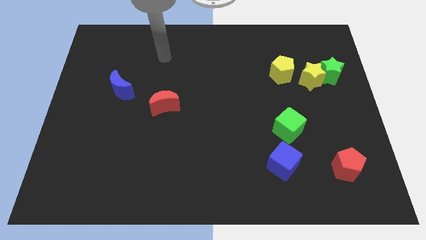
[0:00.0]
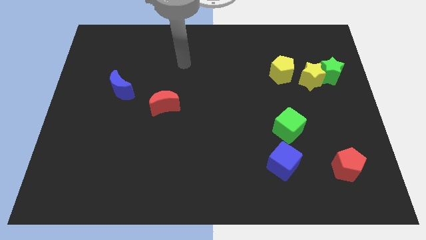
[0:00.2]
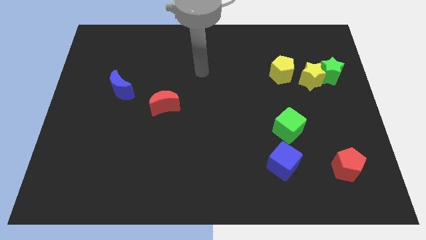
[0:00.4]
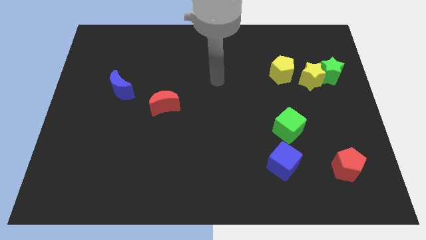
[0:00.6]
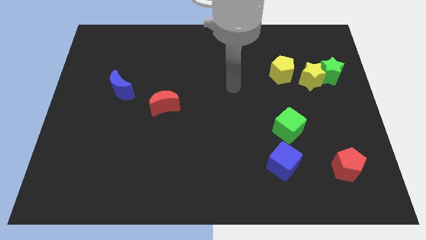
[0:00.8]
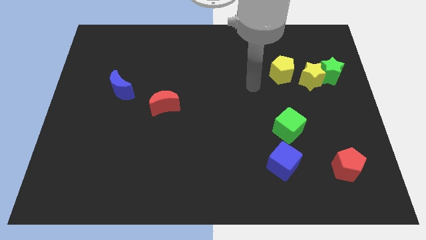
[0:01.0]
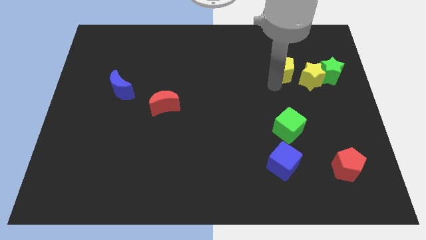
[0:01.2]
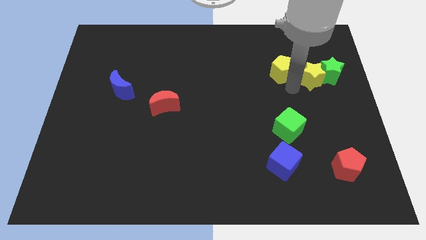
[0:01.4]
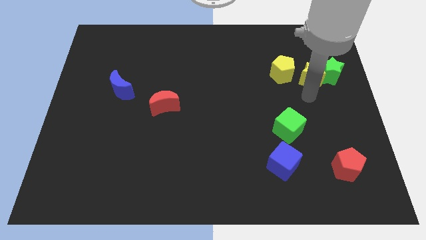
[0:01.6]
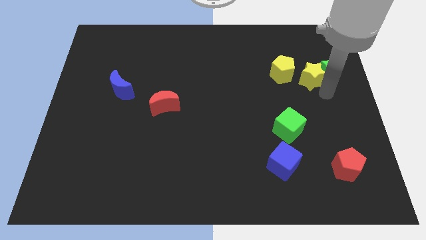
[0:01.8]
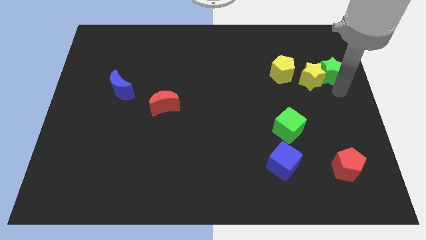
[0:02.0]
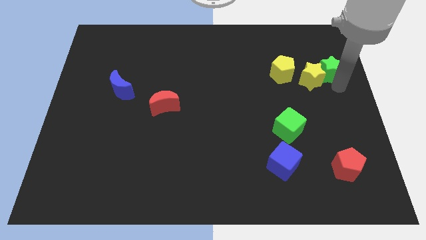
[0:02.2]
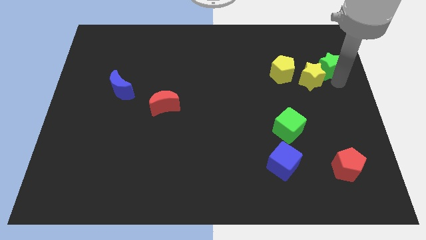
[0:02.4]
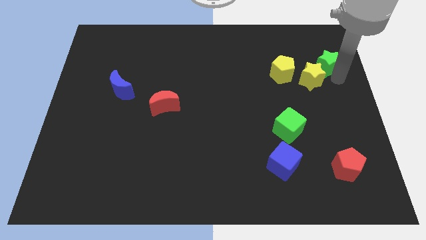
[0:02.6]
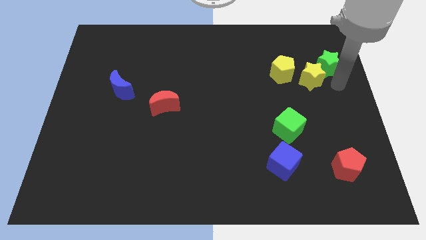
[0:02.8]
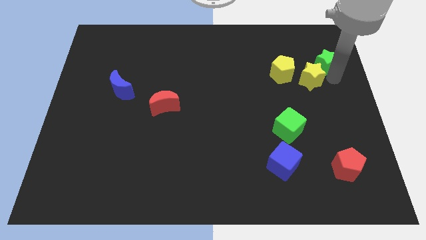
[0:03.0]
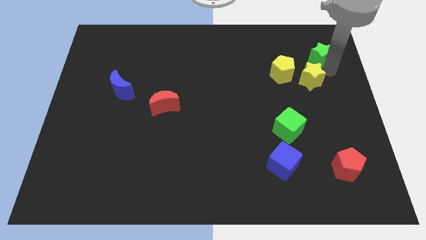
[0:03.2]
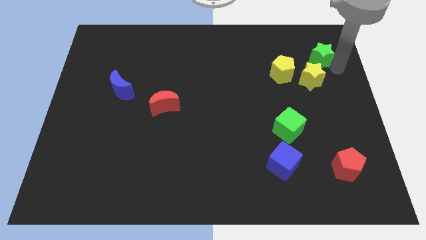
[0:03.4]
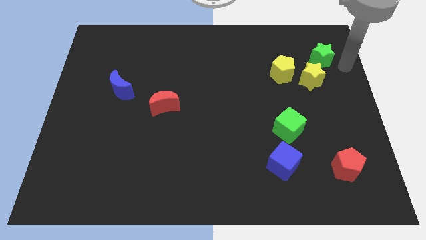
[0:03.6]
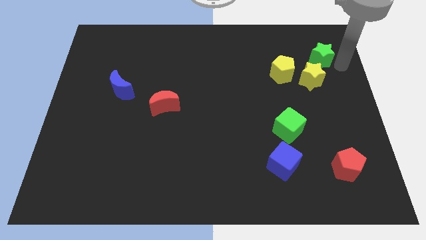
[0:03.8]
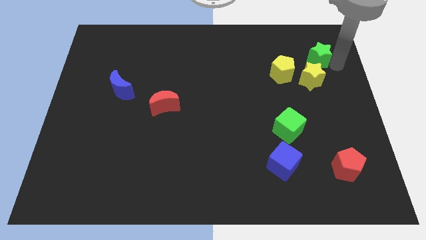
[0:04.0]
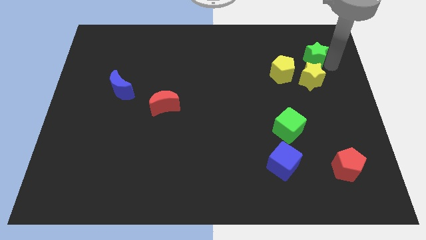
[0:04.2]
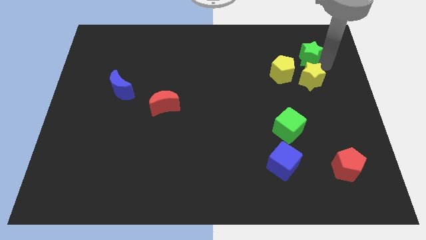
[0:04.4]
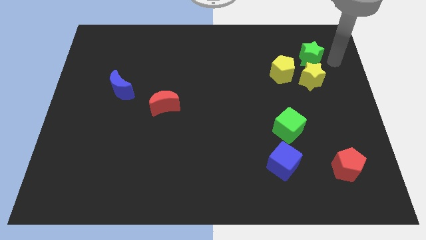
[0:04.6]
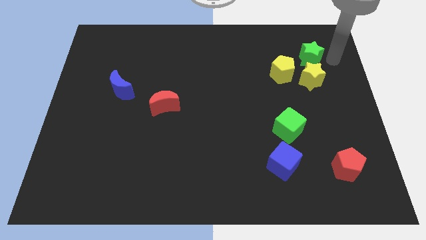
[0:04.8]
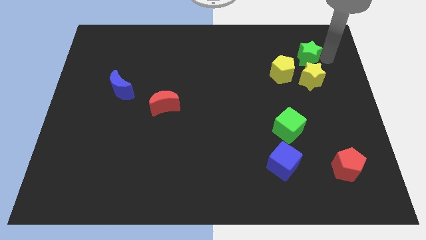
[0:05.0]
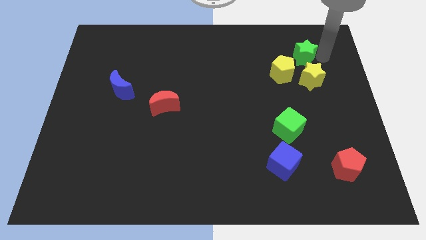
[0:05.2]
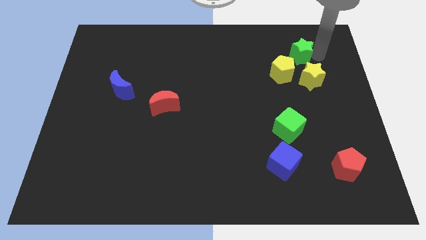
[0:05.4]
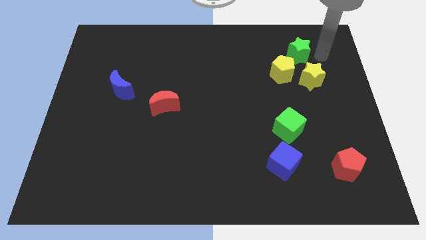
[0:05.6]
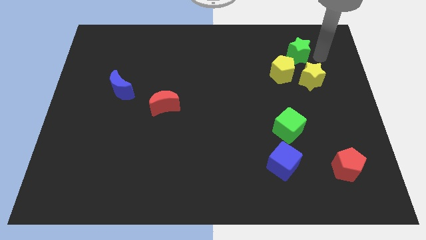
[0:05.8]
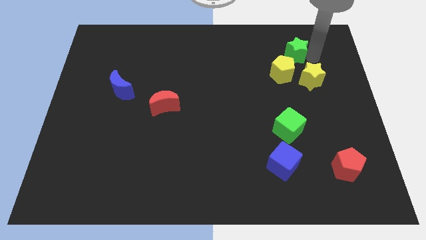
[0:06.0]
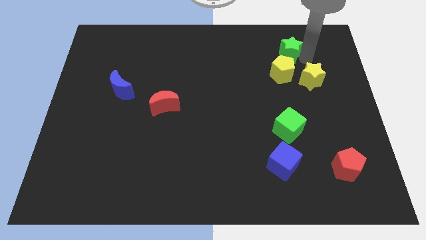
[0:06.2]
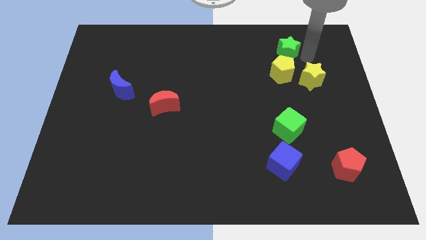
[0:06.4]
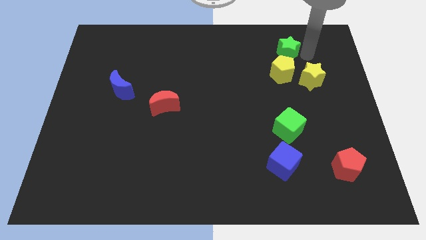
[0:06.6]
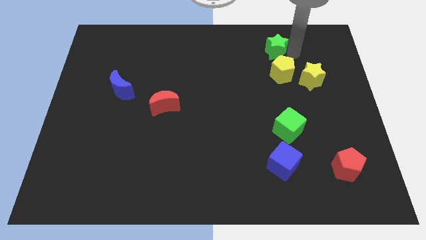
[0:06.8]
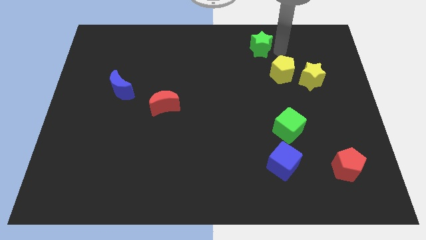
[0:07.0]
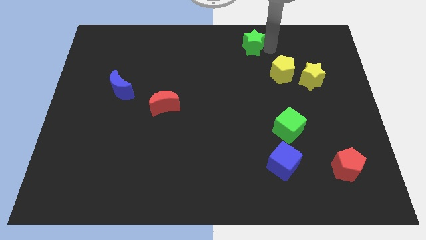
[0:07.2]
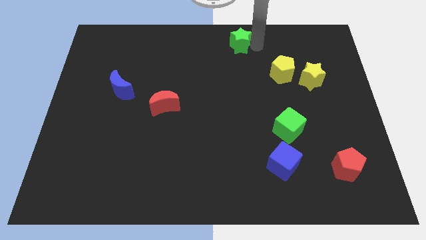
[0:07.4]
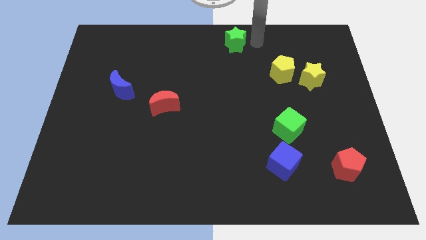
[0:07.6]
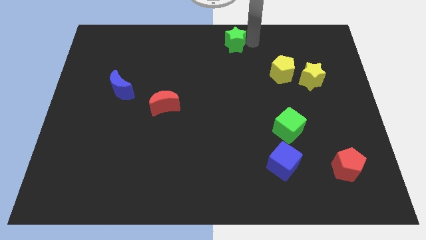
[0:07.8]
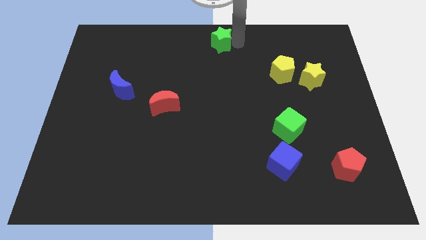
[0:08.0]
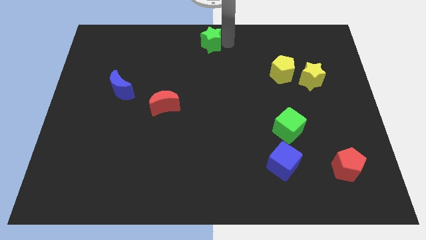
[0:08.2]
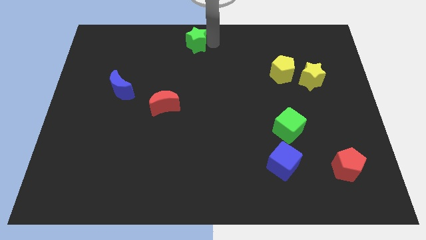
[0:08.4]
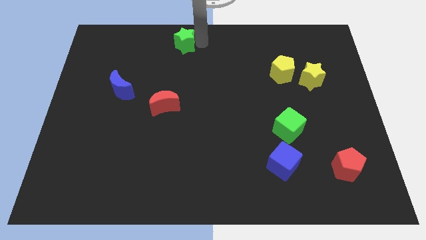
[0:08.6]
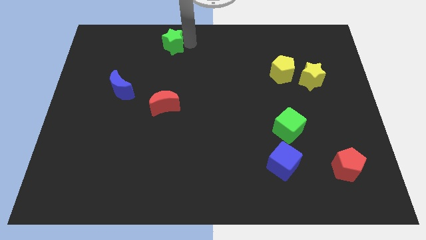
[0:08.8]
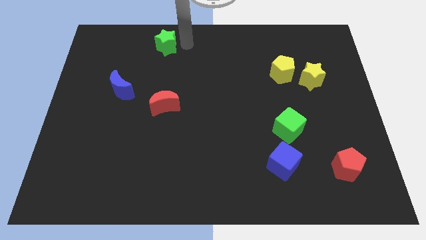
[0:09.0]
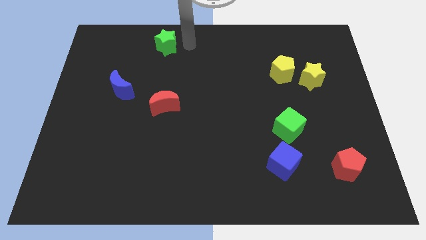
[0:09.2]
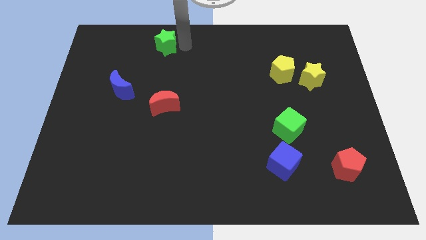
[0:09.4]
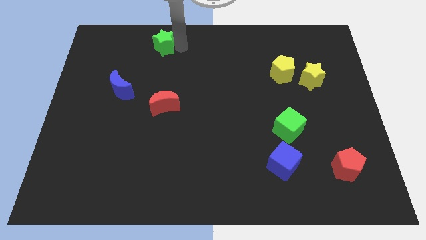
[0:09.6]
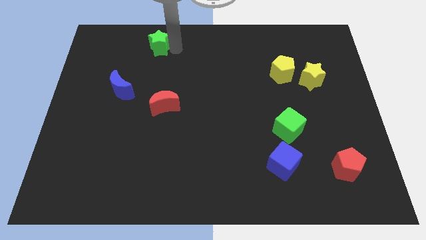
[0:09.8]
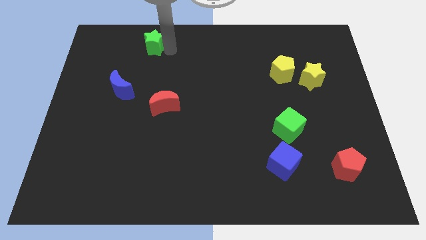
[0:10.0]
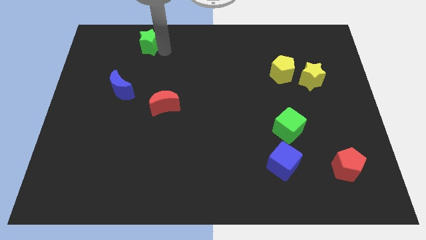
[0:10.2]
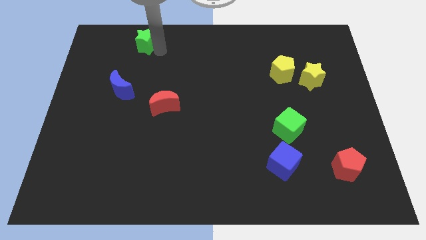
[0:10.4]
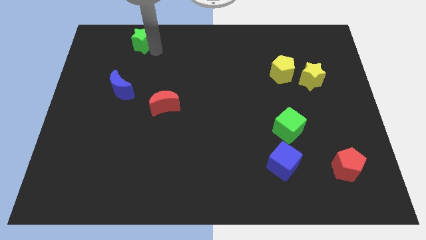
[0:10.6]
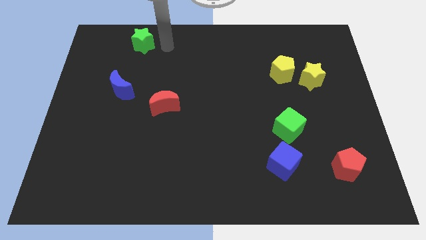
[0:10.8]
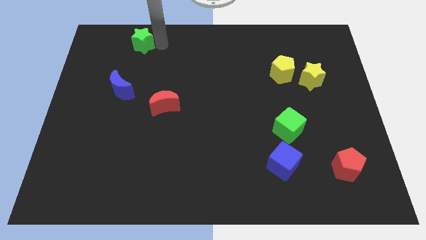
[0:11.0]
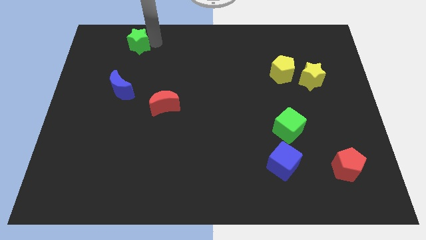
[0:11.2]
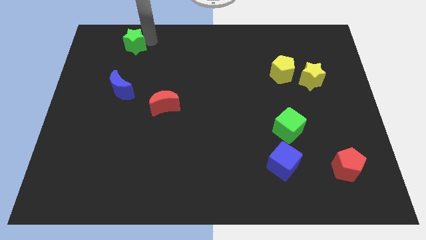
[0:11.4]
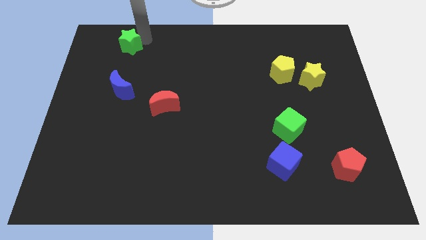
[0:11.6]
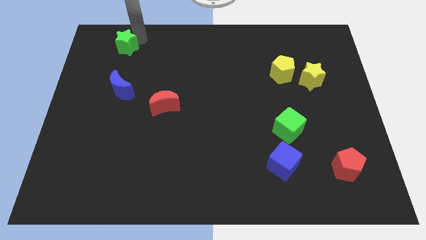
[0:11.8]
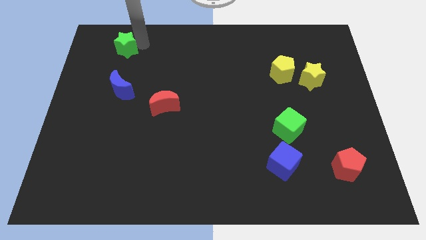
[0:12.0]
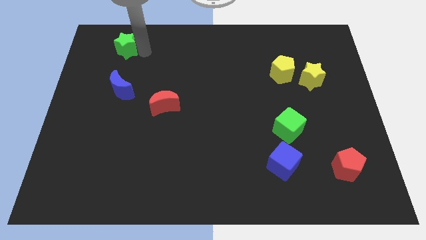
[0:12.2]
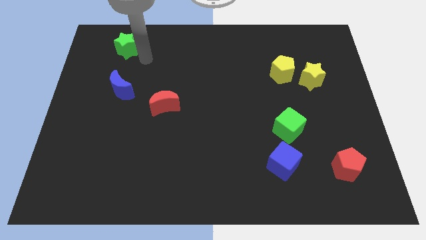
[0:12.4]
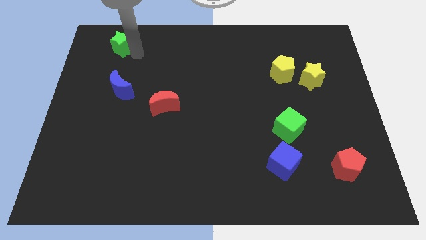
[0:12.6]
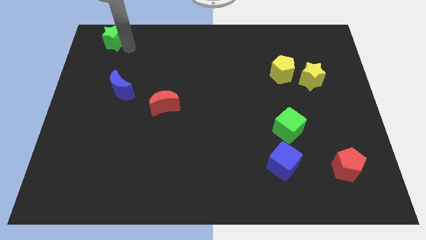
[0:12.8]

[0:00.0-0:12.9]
put the green star to the upper left corner
